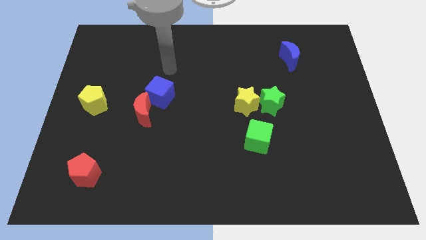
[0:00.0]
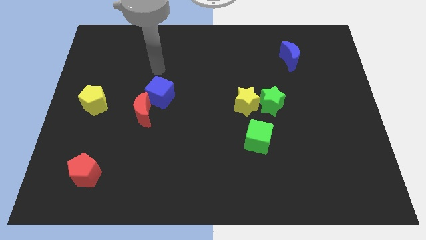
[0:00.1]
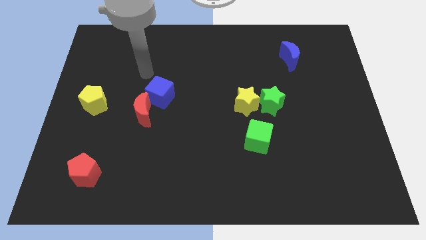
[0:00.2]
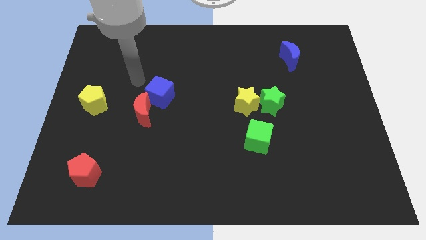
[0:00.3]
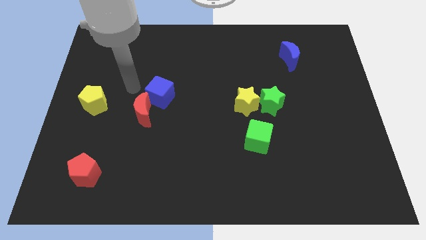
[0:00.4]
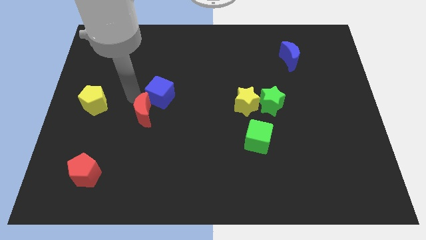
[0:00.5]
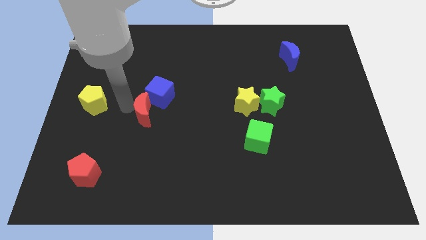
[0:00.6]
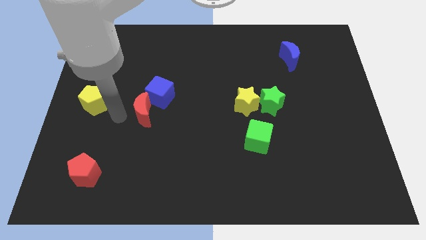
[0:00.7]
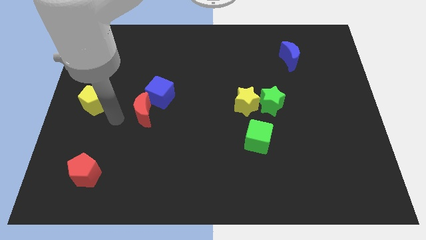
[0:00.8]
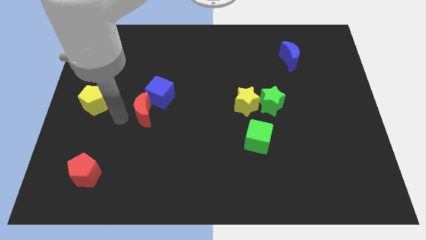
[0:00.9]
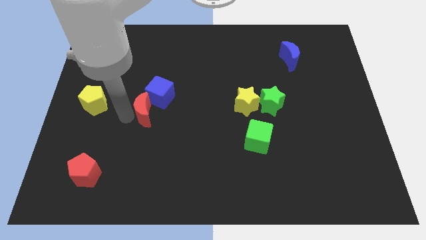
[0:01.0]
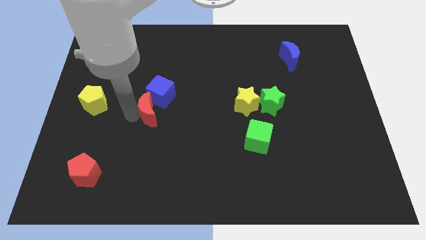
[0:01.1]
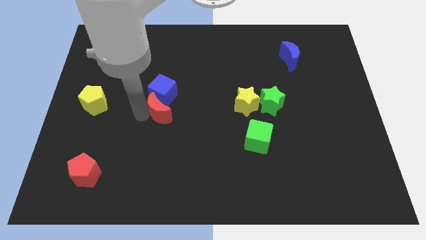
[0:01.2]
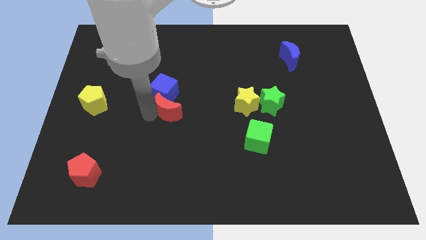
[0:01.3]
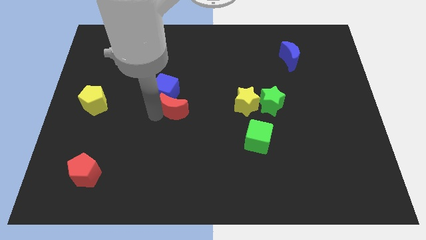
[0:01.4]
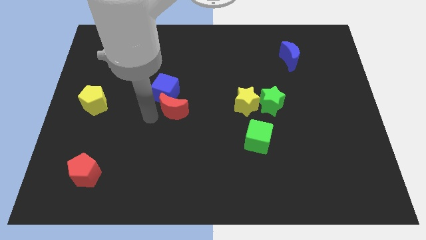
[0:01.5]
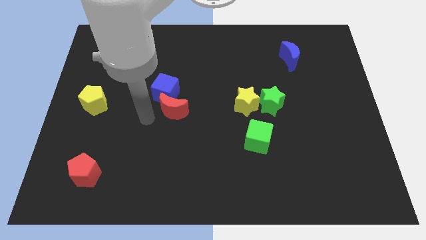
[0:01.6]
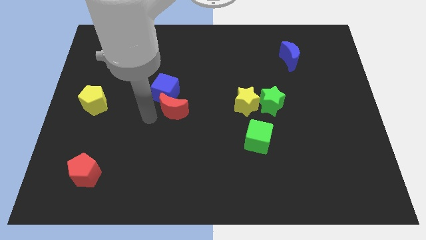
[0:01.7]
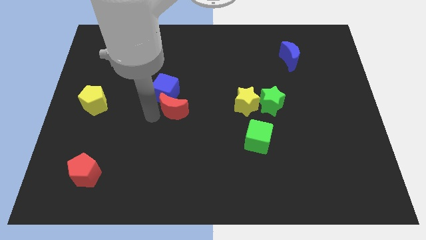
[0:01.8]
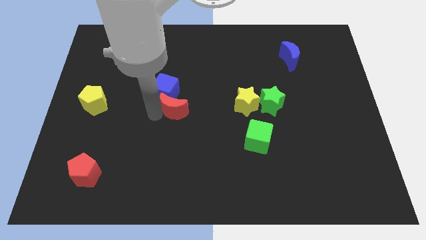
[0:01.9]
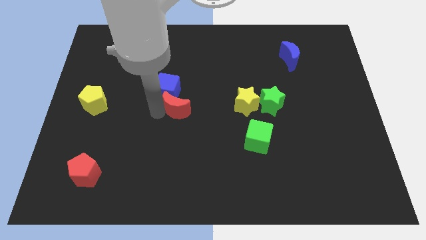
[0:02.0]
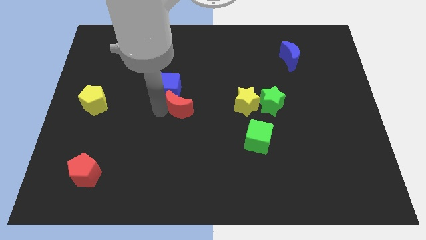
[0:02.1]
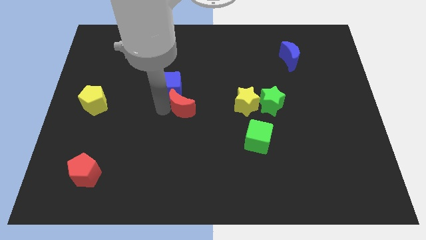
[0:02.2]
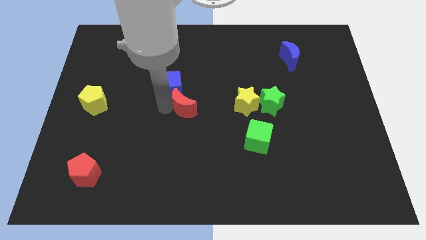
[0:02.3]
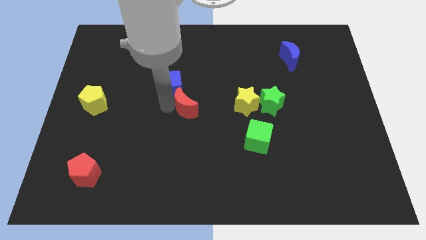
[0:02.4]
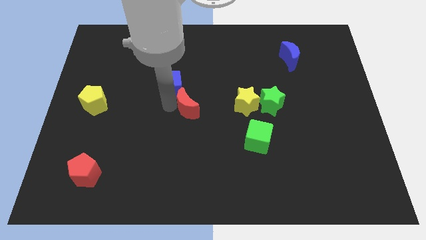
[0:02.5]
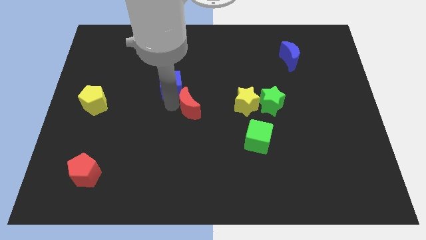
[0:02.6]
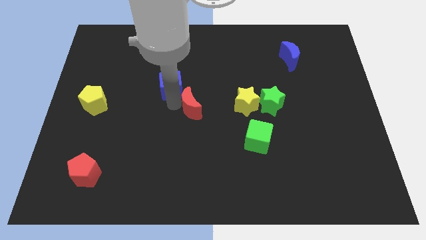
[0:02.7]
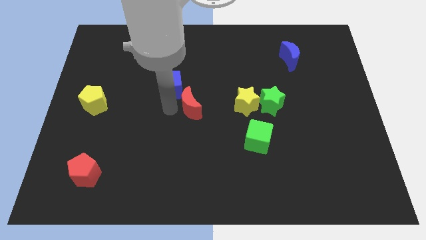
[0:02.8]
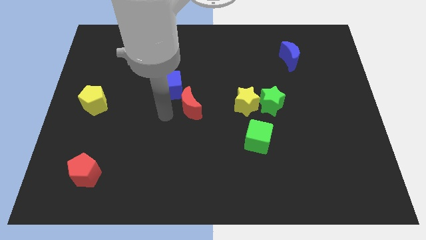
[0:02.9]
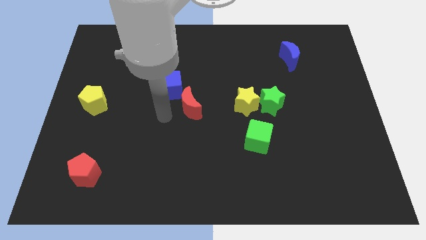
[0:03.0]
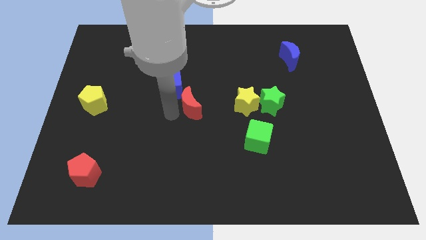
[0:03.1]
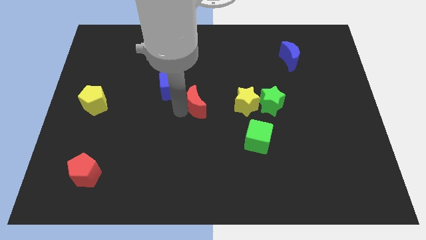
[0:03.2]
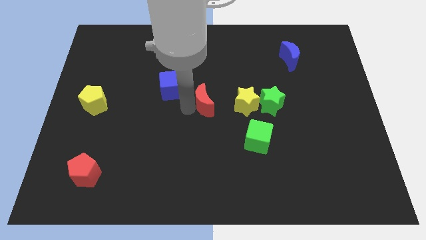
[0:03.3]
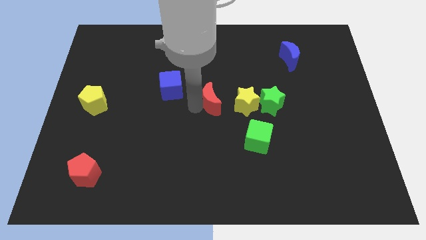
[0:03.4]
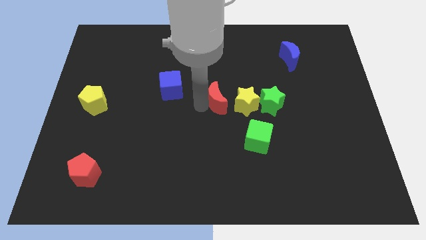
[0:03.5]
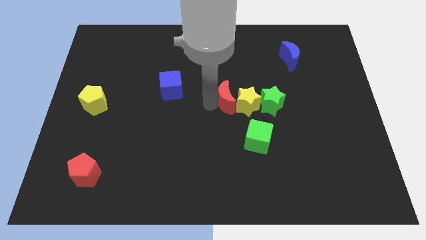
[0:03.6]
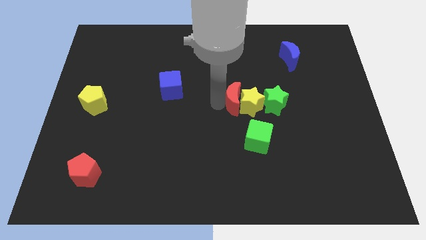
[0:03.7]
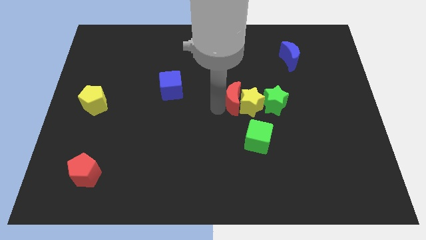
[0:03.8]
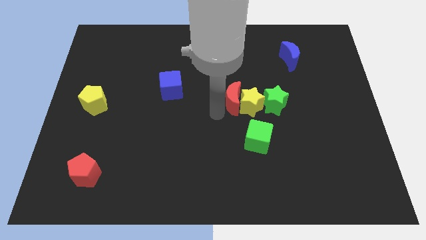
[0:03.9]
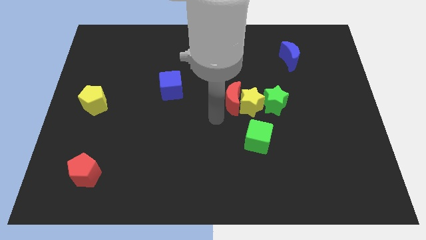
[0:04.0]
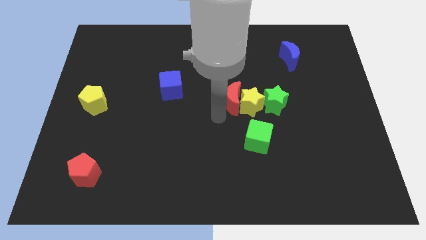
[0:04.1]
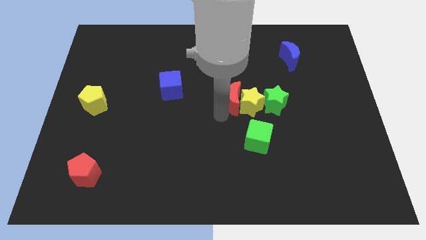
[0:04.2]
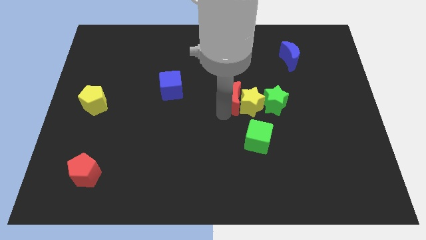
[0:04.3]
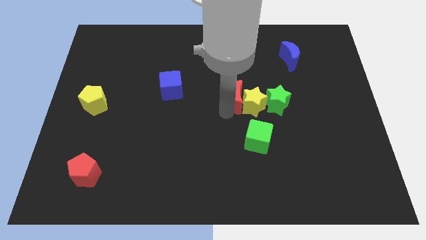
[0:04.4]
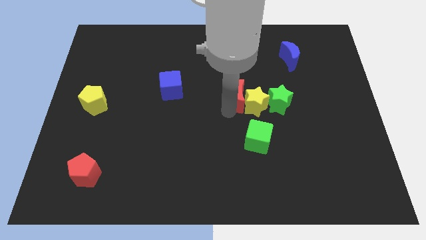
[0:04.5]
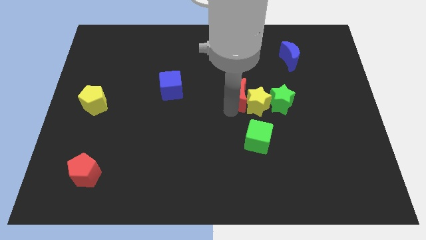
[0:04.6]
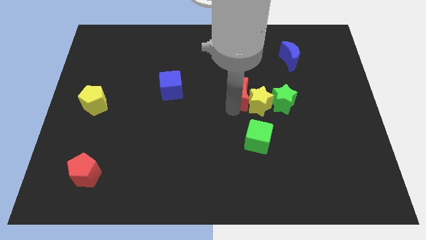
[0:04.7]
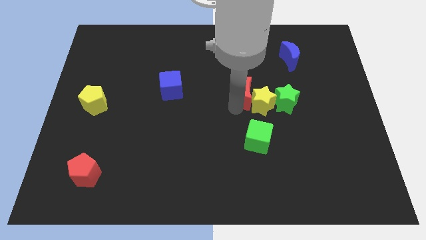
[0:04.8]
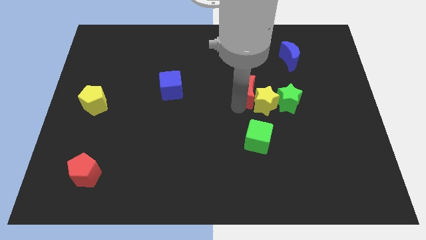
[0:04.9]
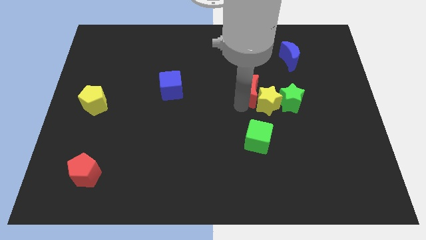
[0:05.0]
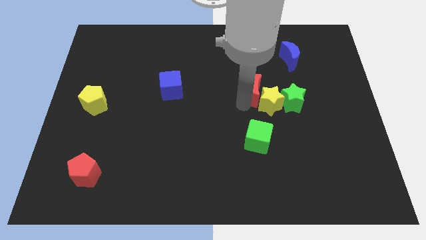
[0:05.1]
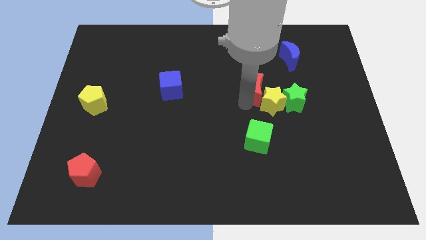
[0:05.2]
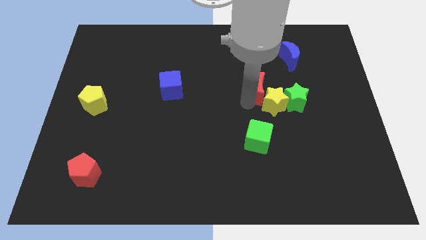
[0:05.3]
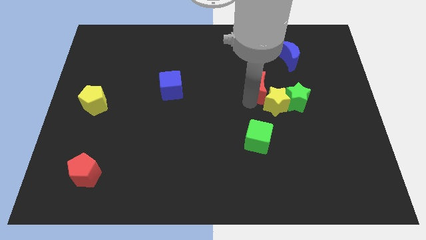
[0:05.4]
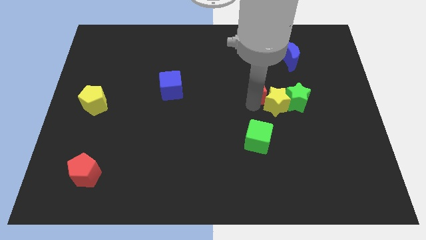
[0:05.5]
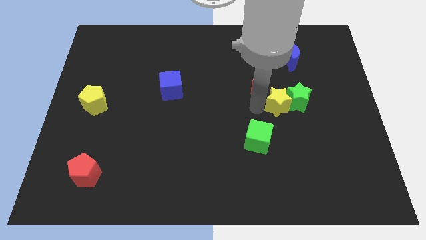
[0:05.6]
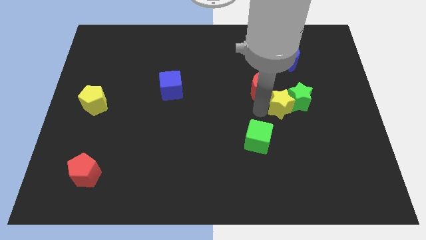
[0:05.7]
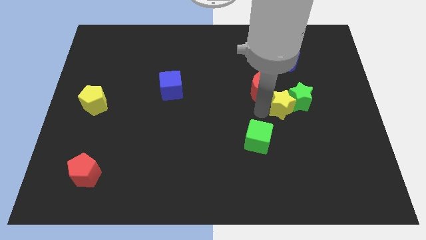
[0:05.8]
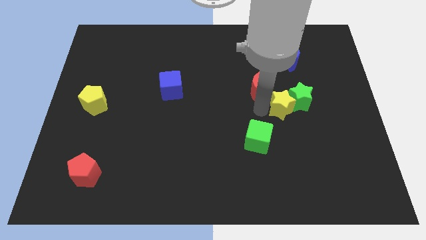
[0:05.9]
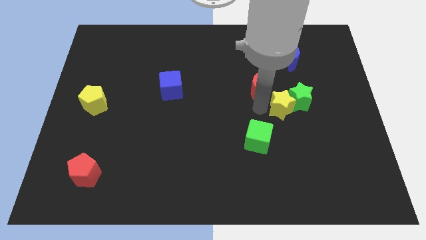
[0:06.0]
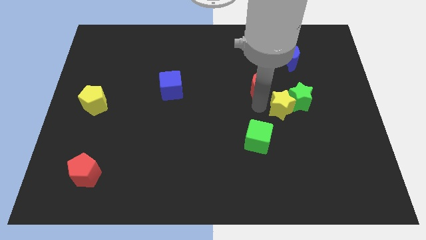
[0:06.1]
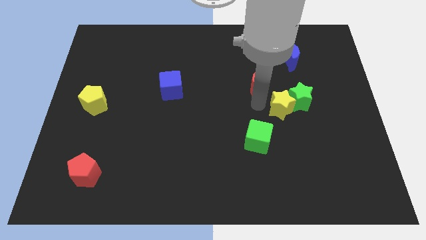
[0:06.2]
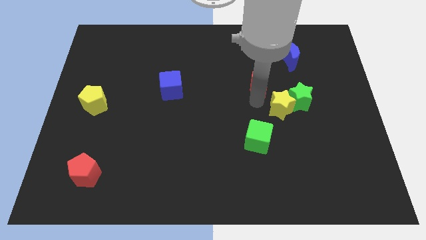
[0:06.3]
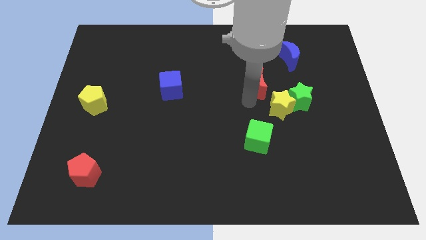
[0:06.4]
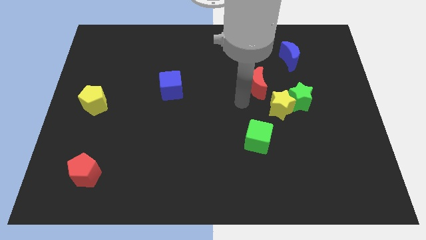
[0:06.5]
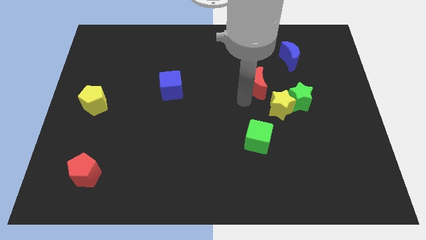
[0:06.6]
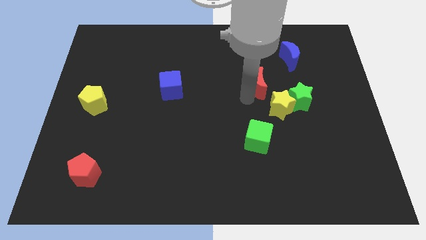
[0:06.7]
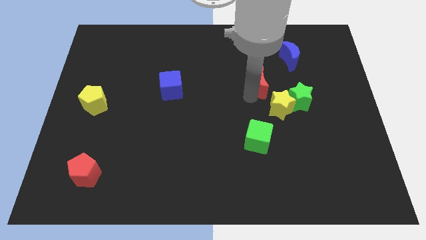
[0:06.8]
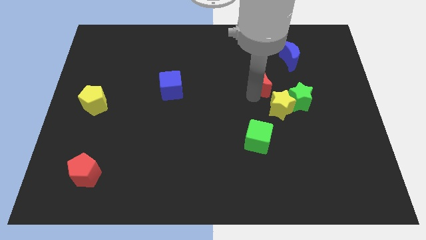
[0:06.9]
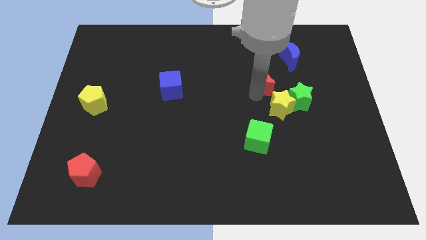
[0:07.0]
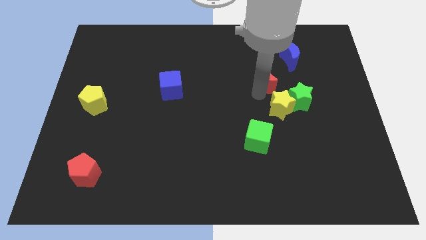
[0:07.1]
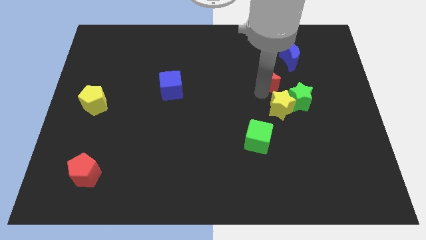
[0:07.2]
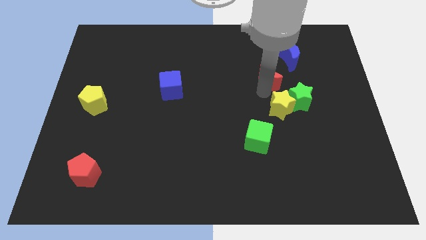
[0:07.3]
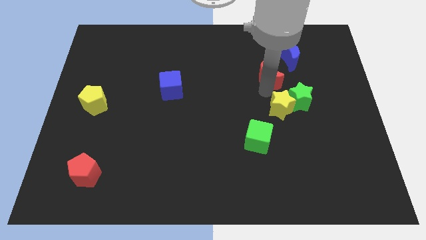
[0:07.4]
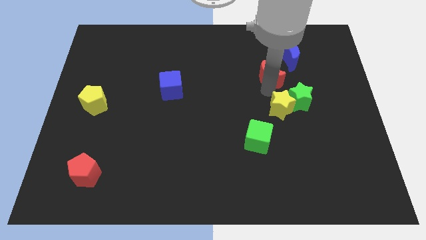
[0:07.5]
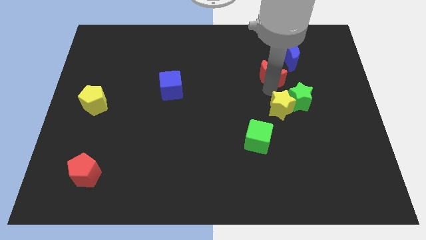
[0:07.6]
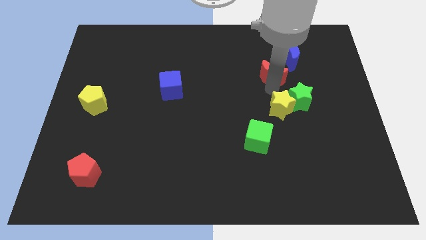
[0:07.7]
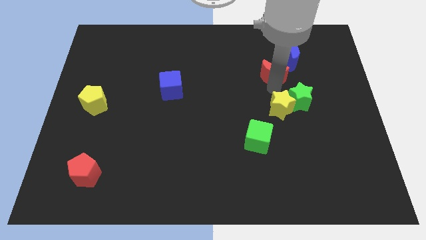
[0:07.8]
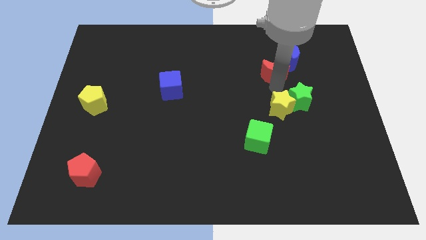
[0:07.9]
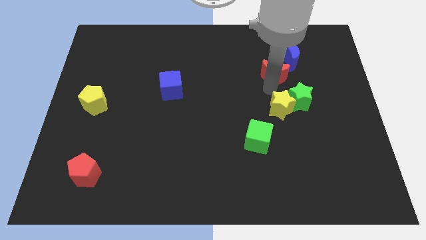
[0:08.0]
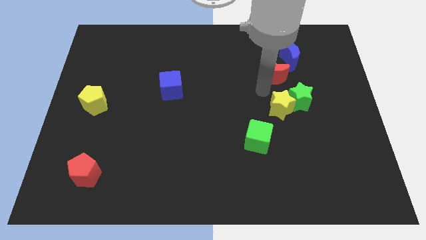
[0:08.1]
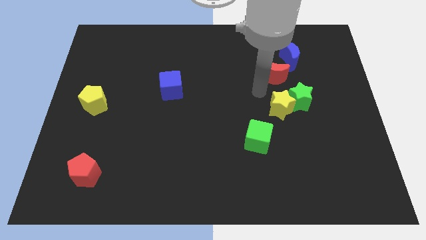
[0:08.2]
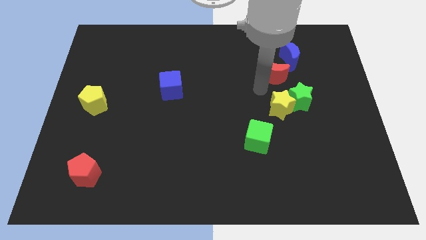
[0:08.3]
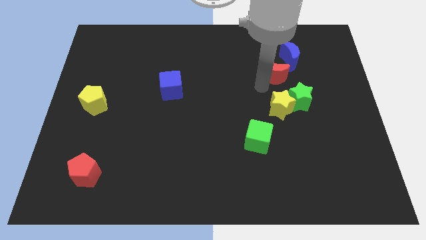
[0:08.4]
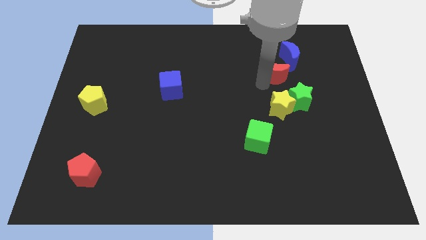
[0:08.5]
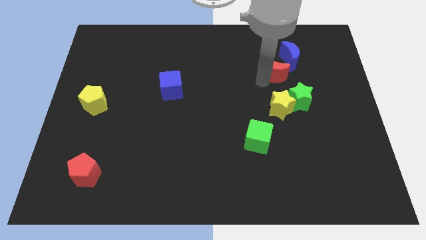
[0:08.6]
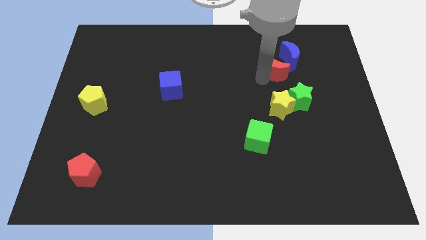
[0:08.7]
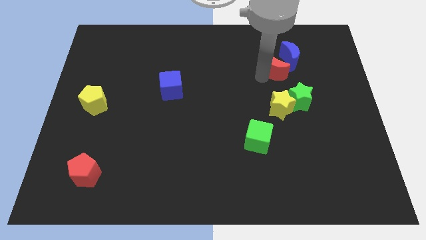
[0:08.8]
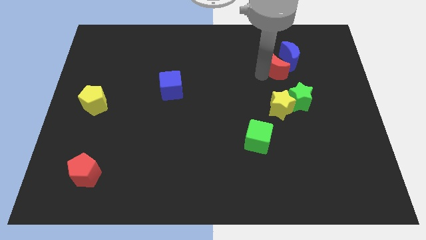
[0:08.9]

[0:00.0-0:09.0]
push the red moon to the blue moon
